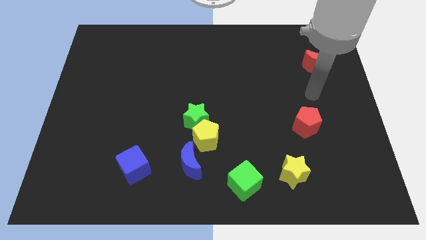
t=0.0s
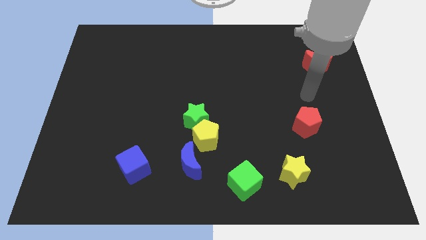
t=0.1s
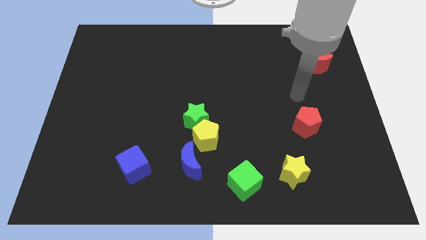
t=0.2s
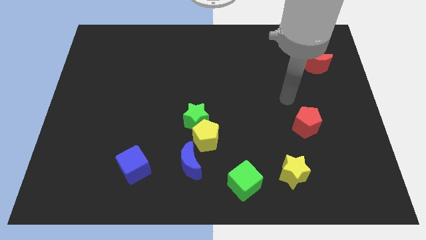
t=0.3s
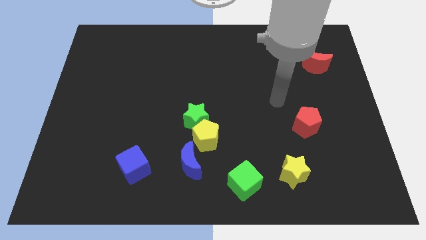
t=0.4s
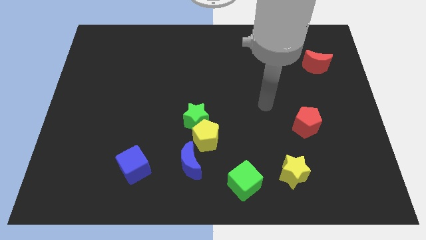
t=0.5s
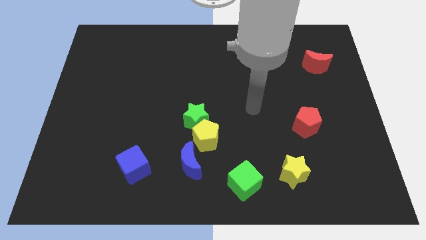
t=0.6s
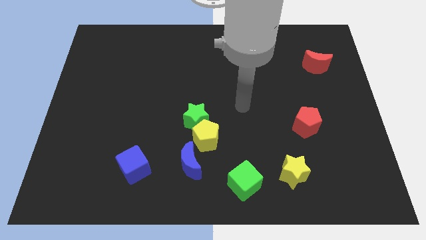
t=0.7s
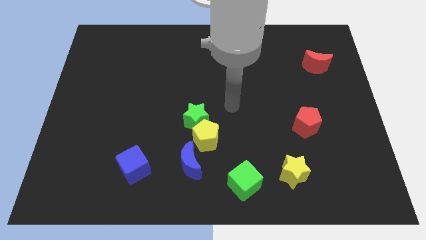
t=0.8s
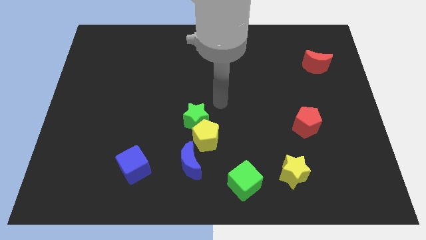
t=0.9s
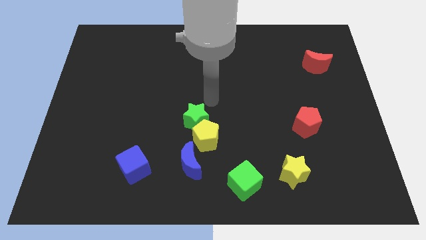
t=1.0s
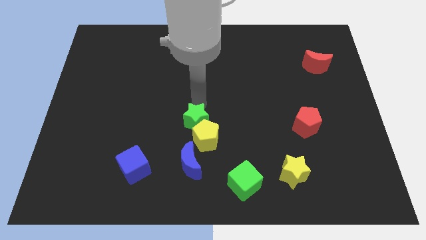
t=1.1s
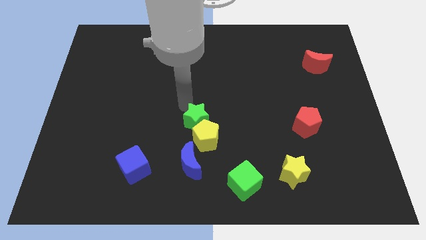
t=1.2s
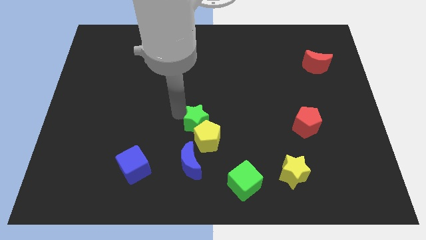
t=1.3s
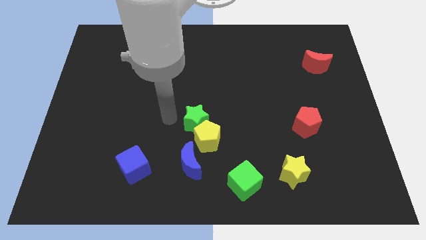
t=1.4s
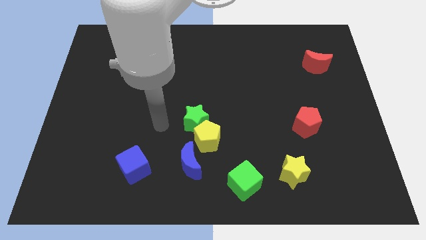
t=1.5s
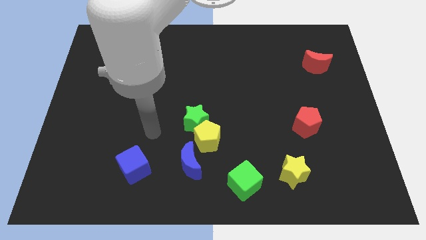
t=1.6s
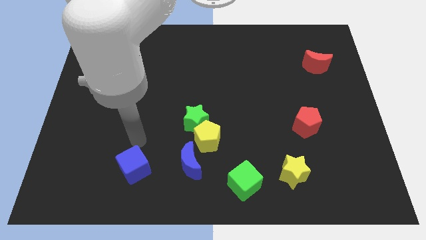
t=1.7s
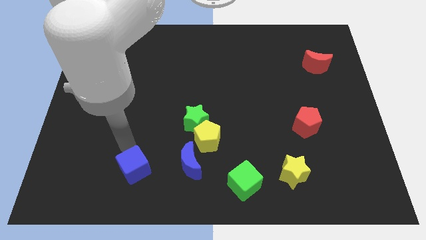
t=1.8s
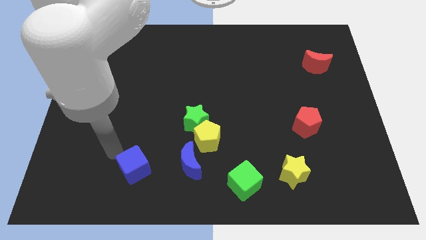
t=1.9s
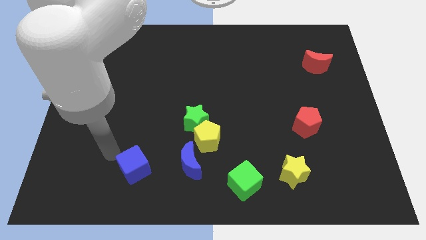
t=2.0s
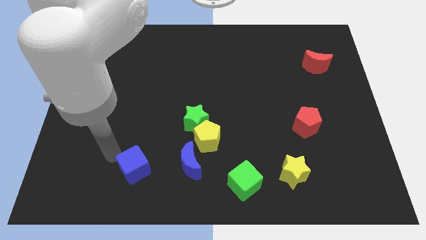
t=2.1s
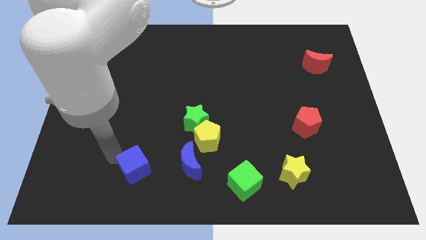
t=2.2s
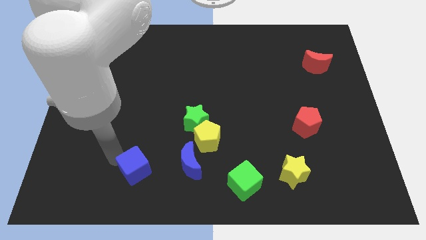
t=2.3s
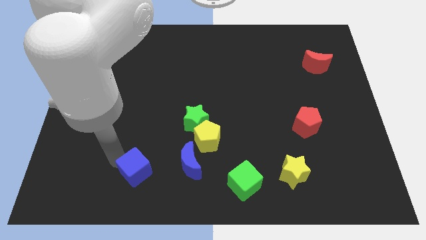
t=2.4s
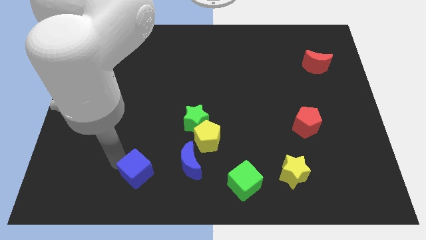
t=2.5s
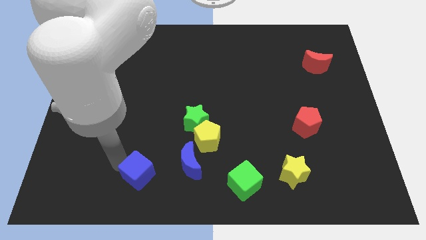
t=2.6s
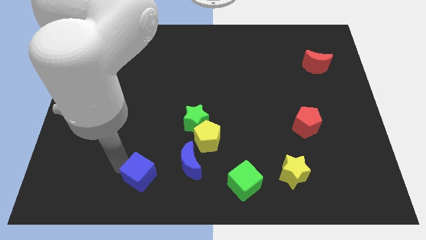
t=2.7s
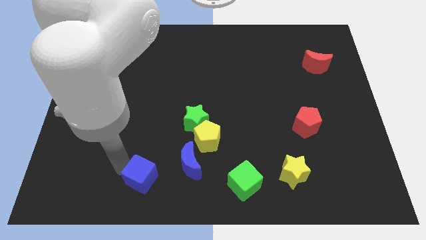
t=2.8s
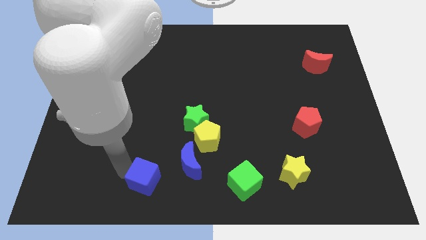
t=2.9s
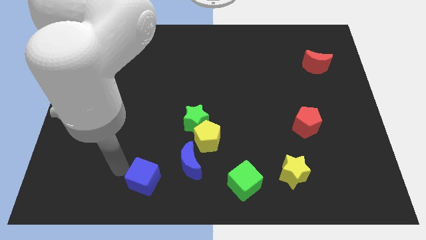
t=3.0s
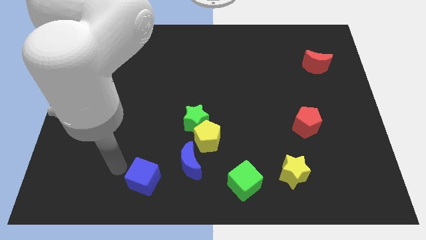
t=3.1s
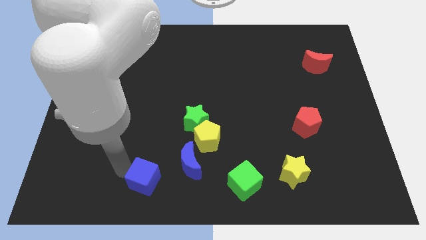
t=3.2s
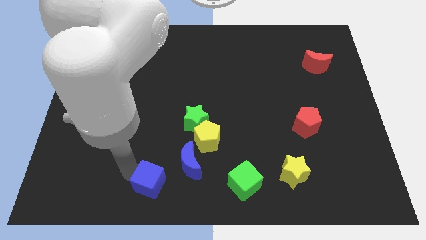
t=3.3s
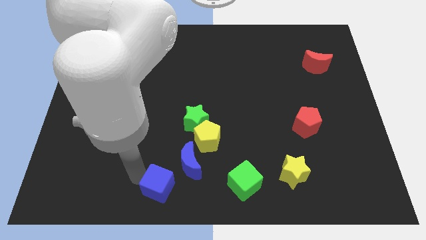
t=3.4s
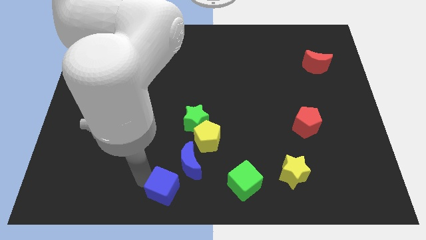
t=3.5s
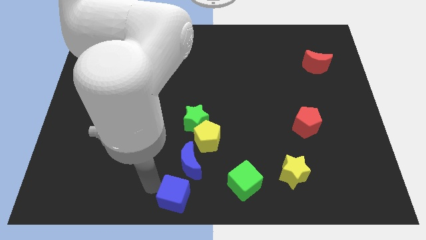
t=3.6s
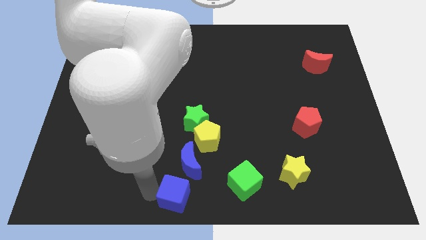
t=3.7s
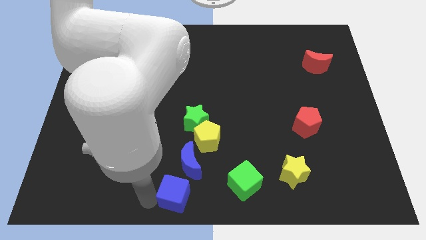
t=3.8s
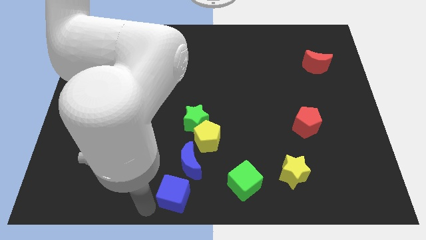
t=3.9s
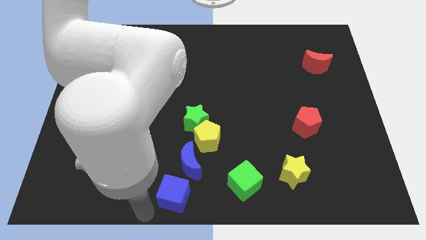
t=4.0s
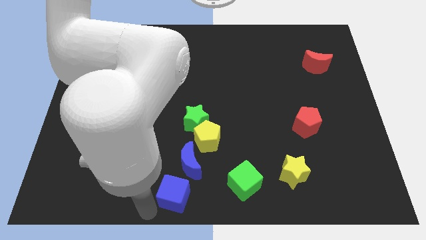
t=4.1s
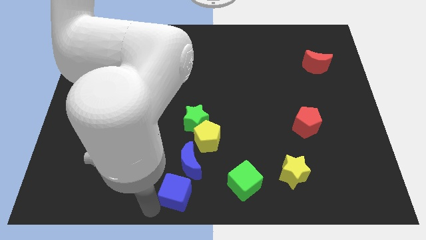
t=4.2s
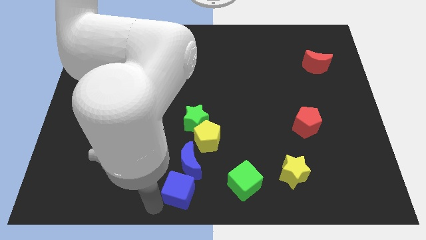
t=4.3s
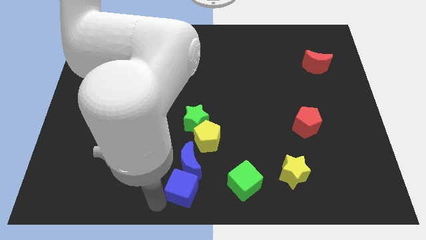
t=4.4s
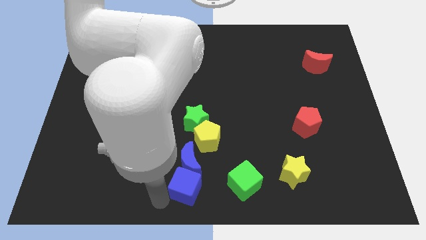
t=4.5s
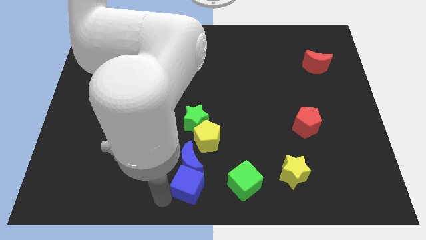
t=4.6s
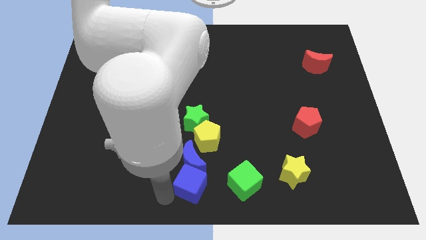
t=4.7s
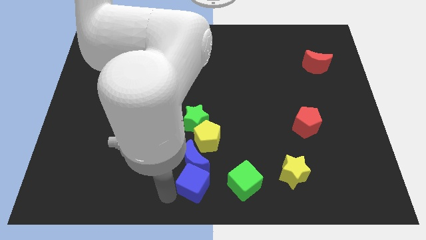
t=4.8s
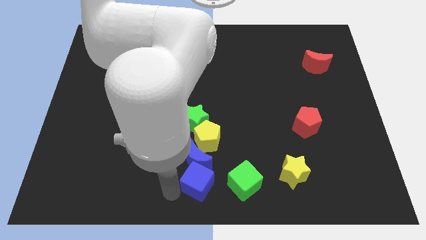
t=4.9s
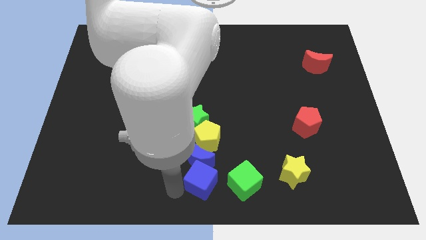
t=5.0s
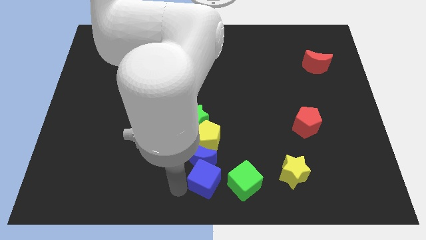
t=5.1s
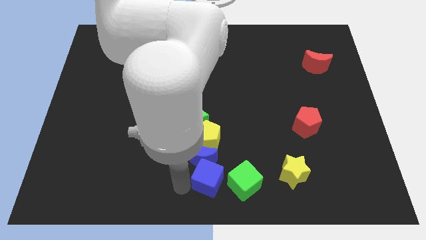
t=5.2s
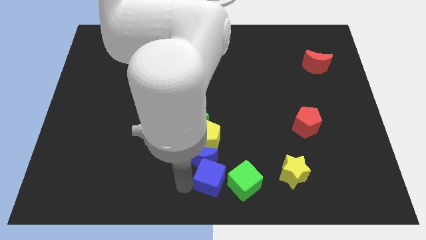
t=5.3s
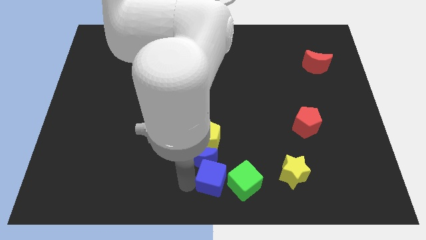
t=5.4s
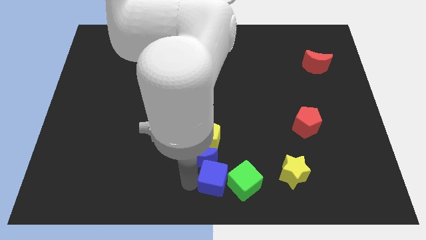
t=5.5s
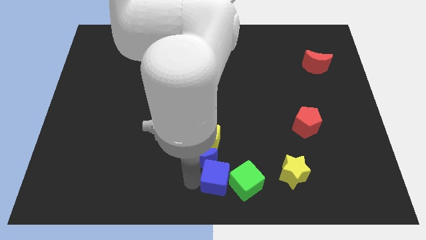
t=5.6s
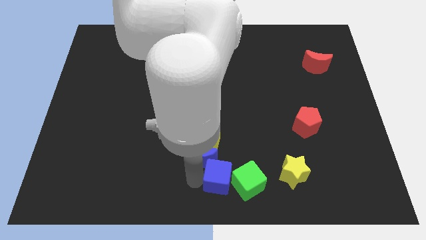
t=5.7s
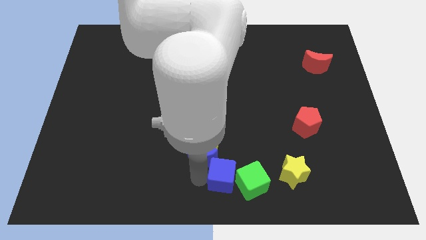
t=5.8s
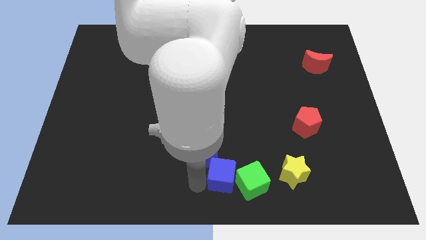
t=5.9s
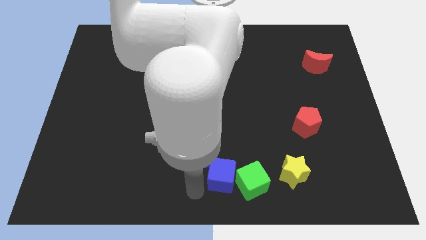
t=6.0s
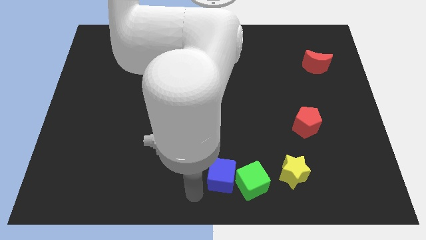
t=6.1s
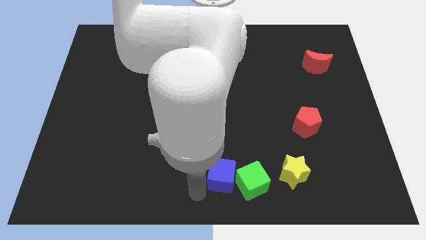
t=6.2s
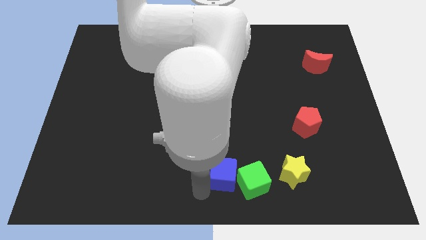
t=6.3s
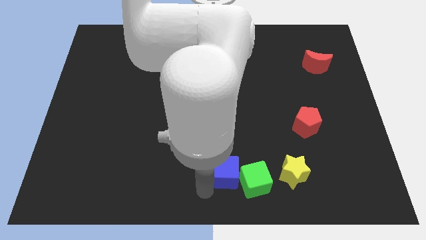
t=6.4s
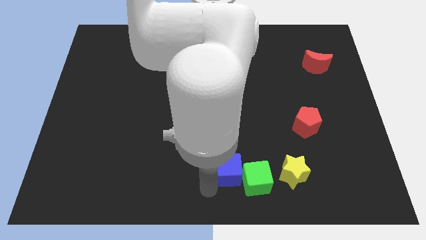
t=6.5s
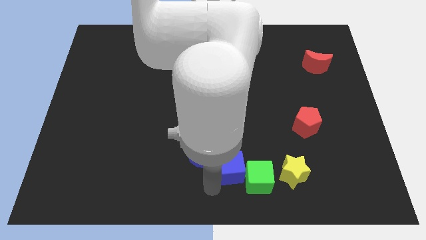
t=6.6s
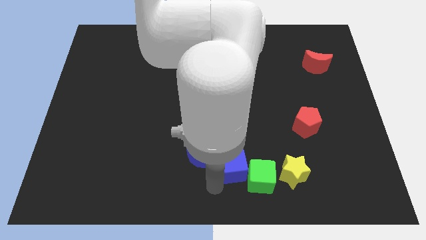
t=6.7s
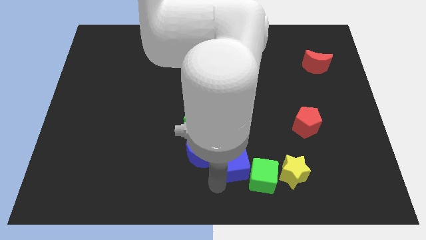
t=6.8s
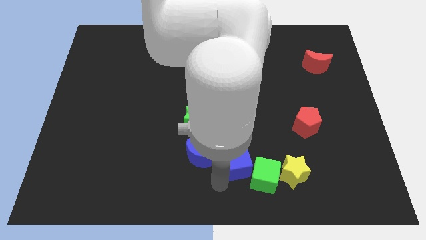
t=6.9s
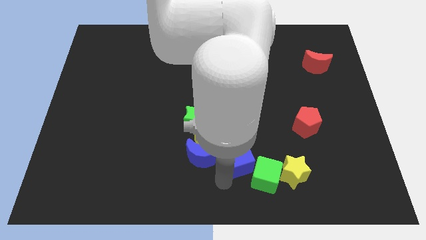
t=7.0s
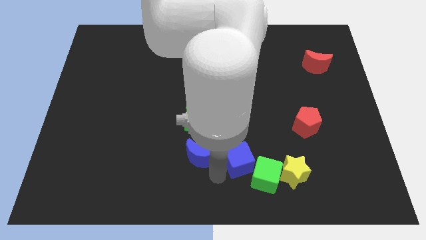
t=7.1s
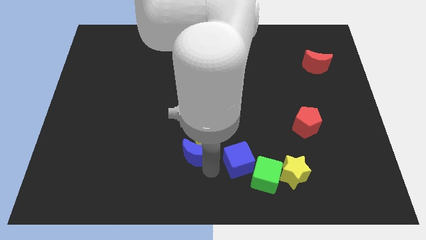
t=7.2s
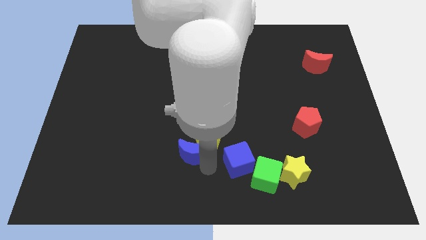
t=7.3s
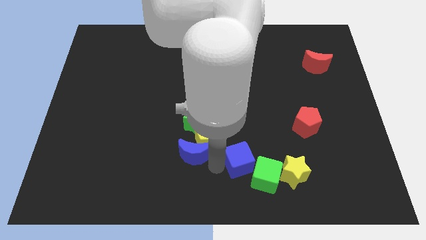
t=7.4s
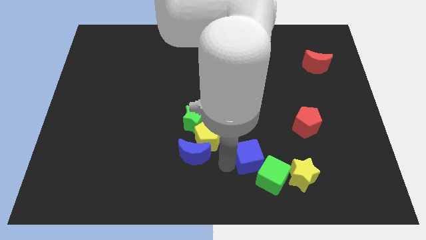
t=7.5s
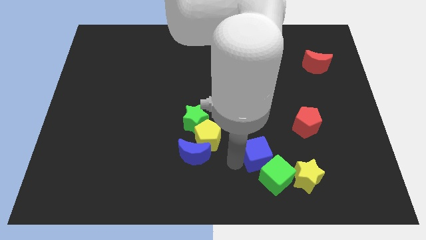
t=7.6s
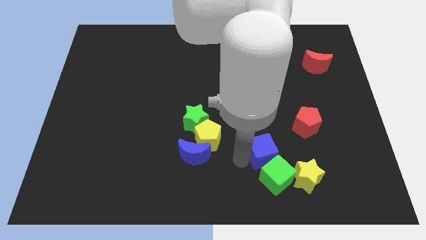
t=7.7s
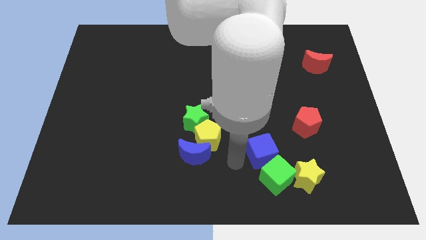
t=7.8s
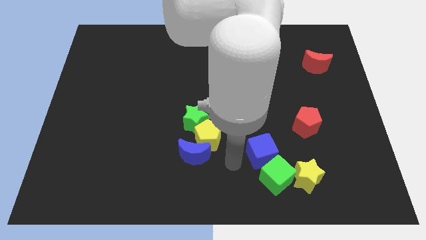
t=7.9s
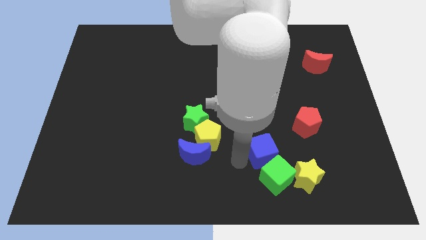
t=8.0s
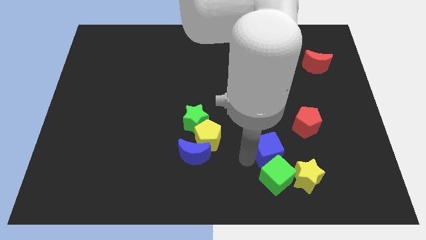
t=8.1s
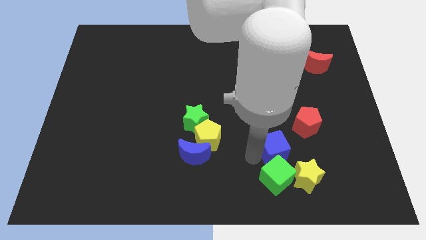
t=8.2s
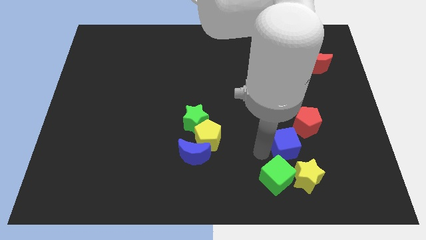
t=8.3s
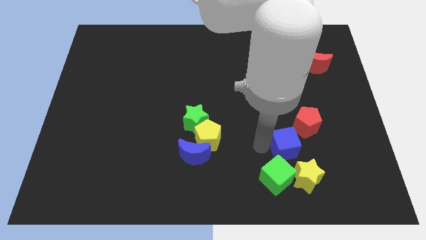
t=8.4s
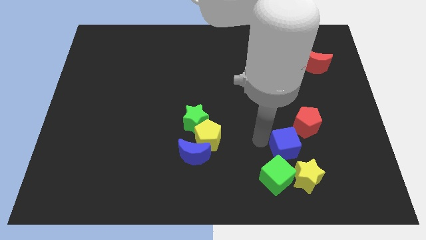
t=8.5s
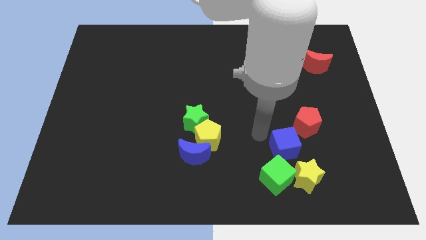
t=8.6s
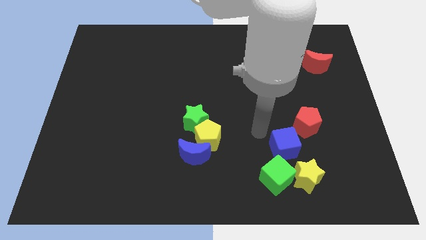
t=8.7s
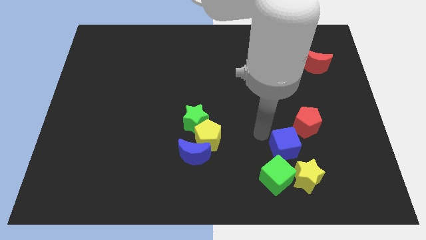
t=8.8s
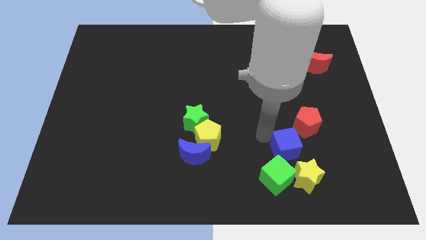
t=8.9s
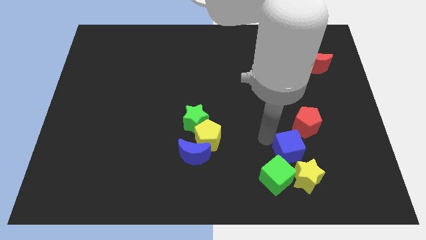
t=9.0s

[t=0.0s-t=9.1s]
slide the blue cube below the red pentagon
